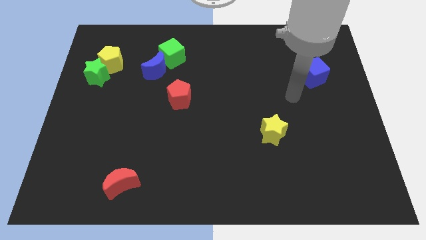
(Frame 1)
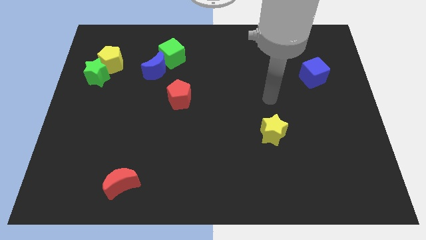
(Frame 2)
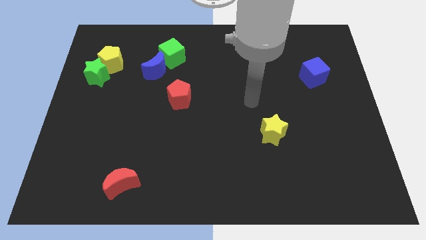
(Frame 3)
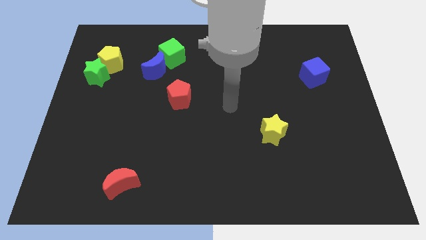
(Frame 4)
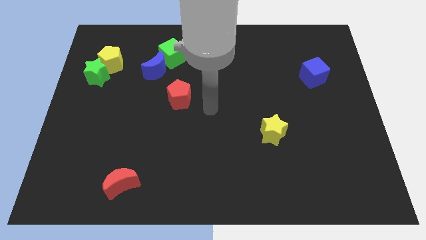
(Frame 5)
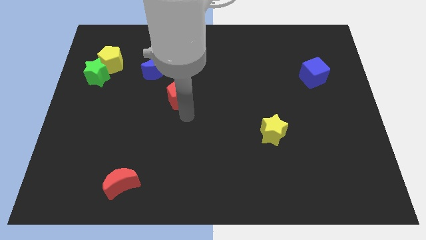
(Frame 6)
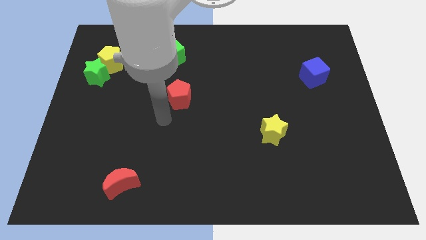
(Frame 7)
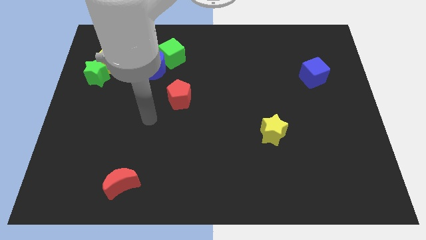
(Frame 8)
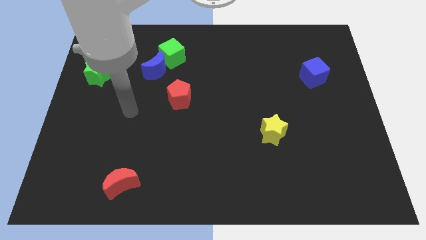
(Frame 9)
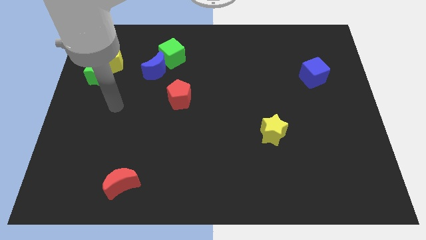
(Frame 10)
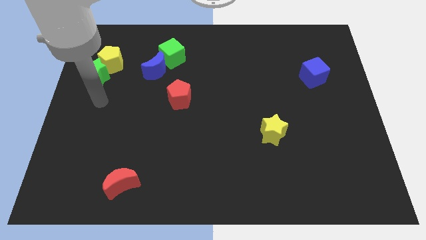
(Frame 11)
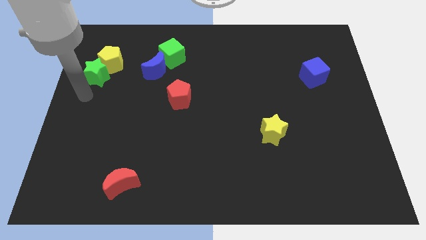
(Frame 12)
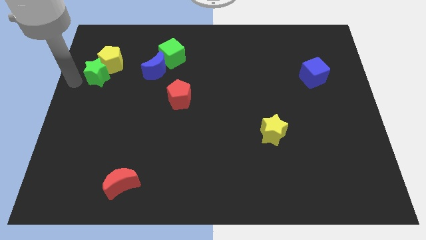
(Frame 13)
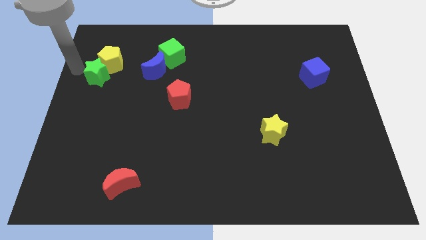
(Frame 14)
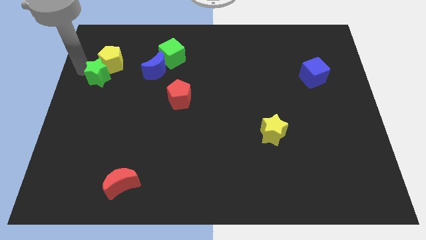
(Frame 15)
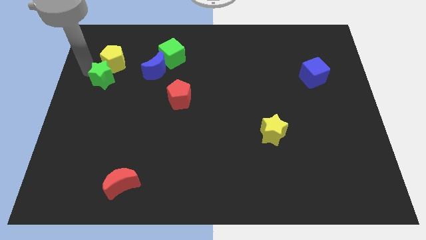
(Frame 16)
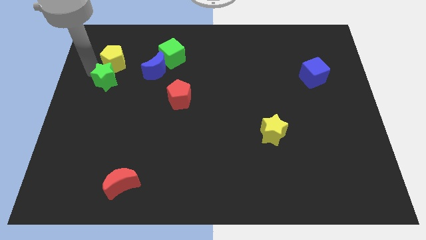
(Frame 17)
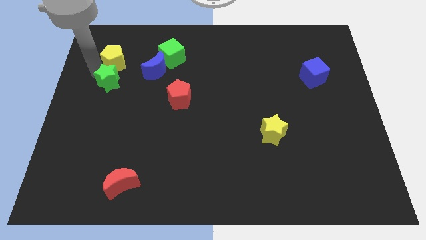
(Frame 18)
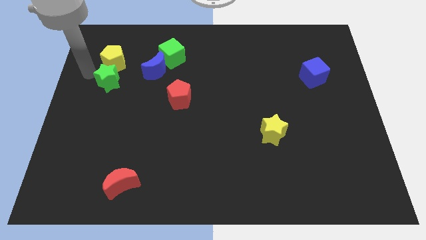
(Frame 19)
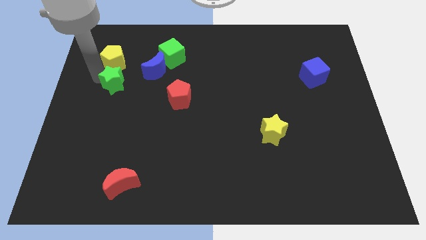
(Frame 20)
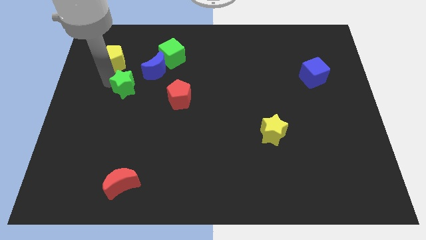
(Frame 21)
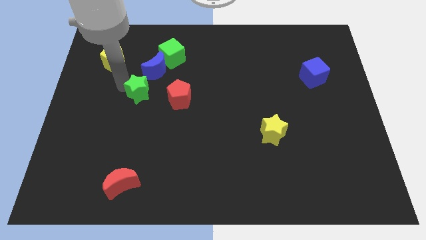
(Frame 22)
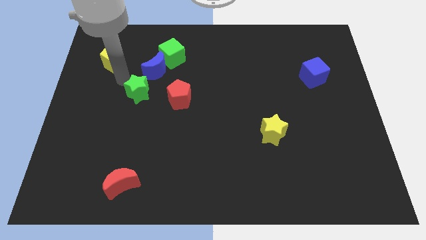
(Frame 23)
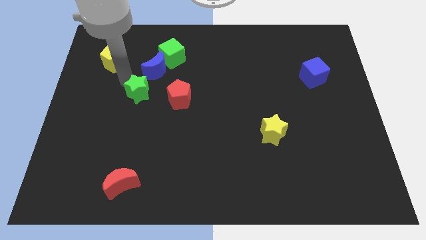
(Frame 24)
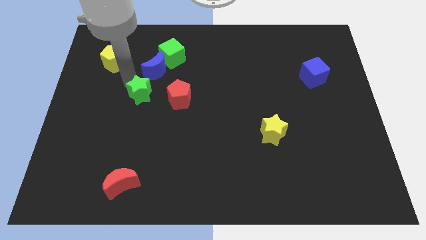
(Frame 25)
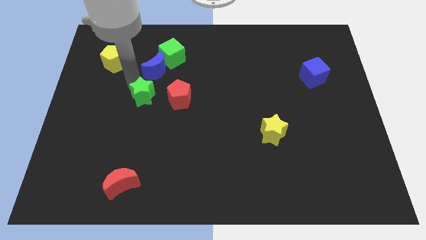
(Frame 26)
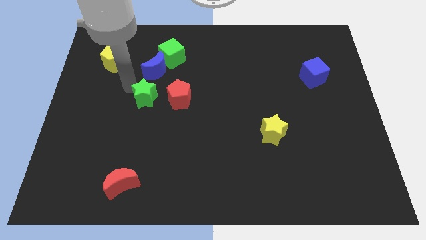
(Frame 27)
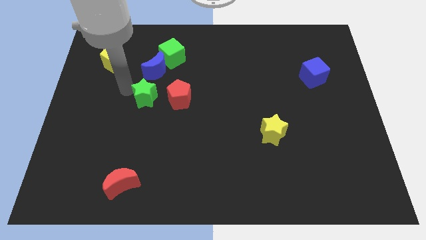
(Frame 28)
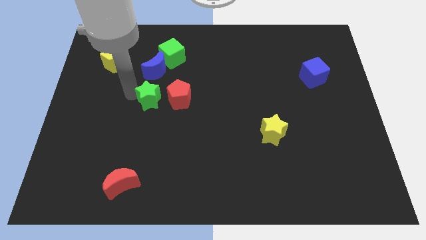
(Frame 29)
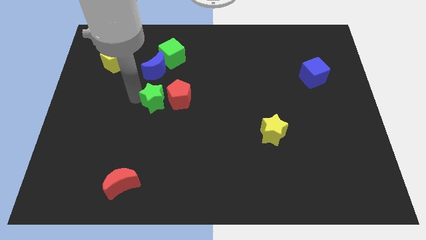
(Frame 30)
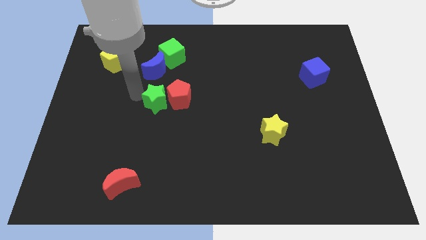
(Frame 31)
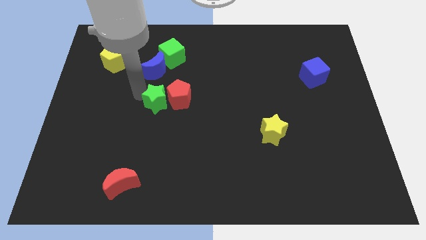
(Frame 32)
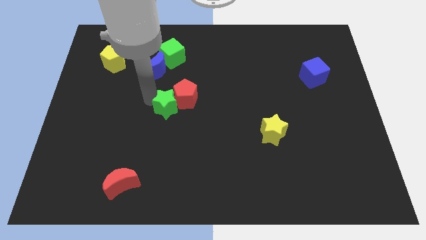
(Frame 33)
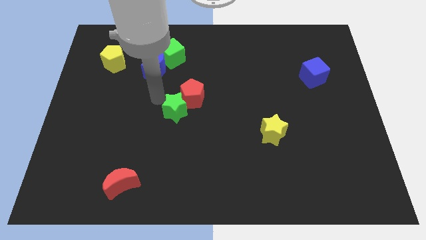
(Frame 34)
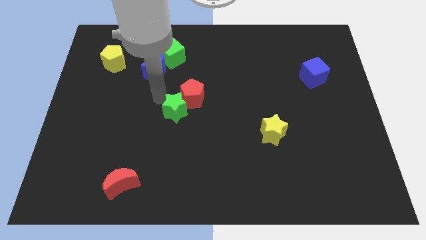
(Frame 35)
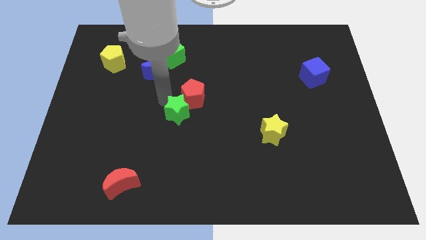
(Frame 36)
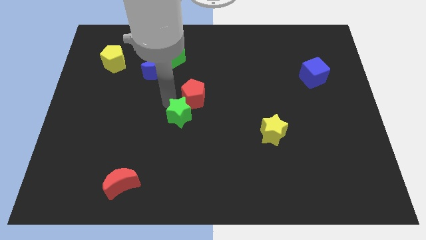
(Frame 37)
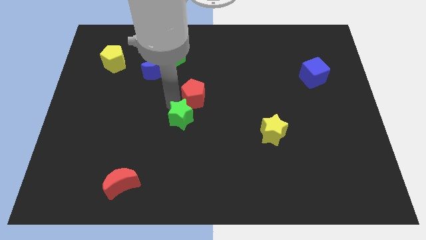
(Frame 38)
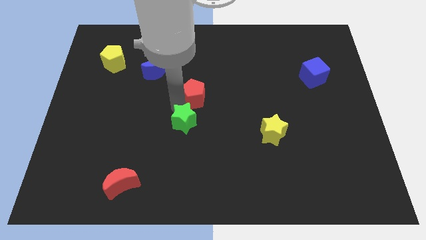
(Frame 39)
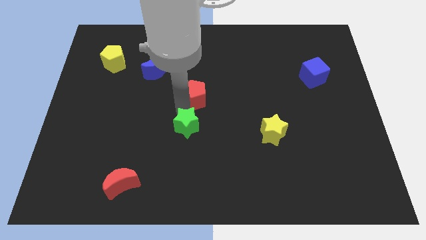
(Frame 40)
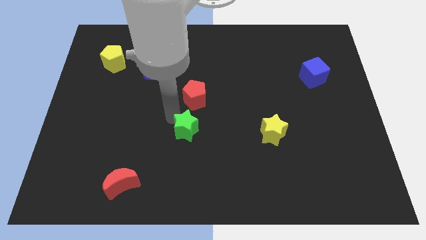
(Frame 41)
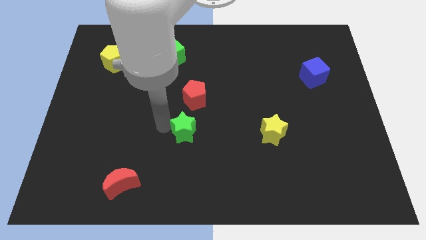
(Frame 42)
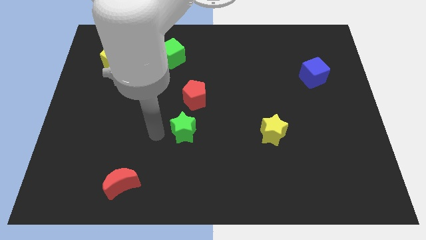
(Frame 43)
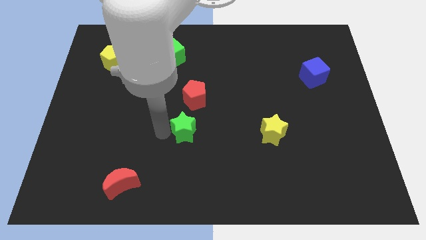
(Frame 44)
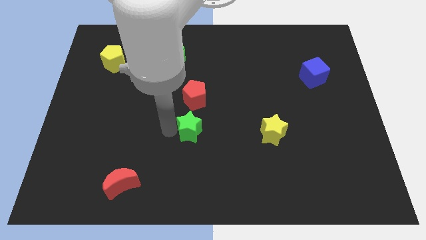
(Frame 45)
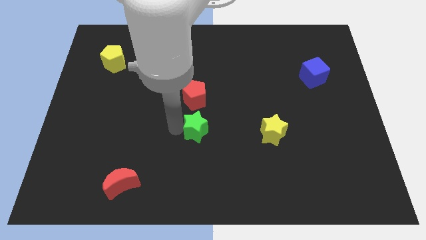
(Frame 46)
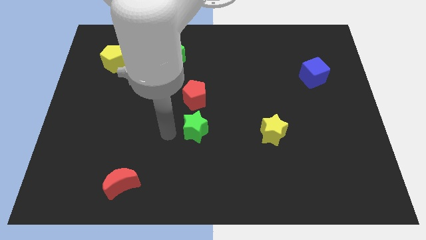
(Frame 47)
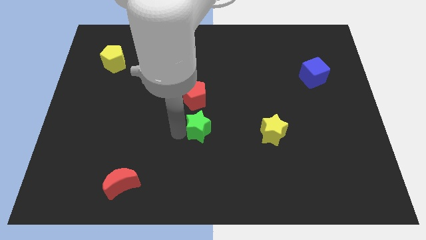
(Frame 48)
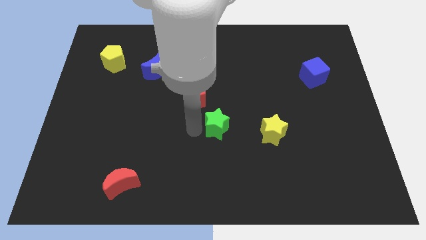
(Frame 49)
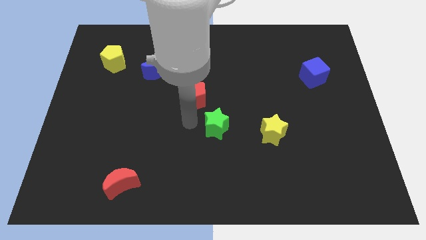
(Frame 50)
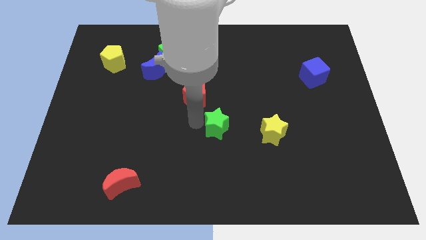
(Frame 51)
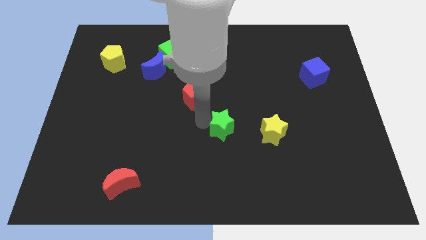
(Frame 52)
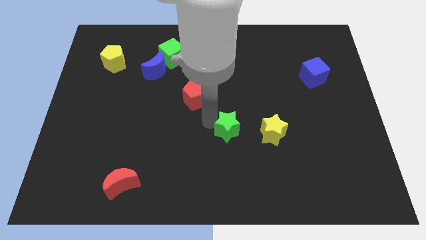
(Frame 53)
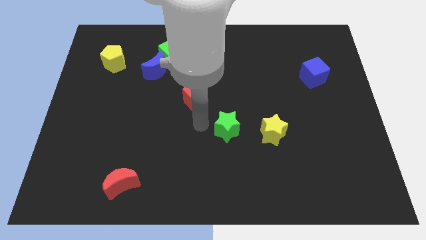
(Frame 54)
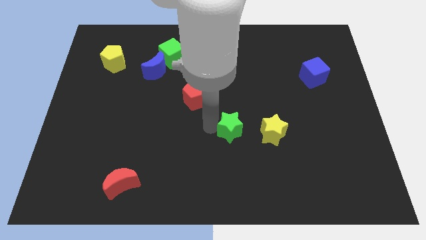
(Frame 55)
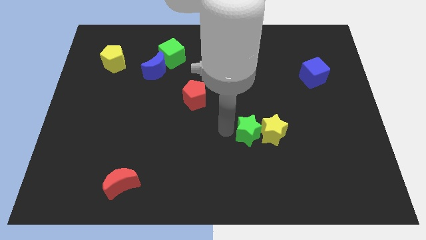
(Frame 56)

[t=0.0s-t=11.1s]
push the green star next to the yellow star

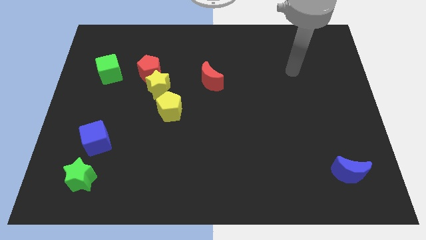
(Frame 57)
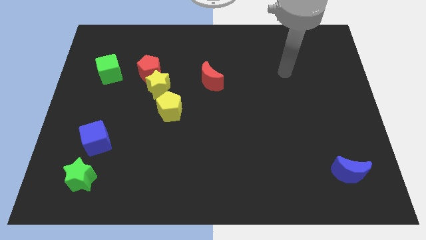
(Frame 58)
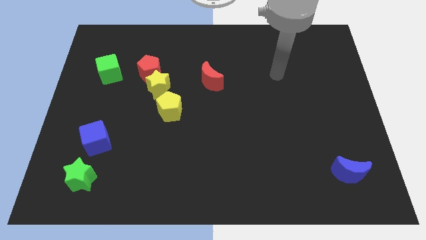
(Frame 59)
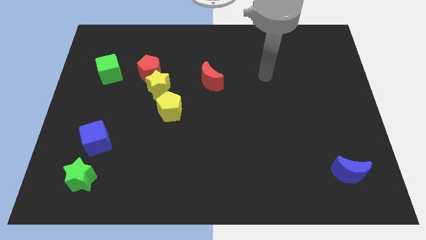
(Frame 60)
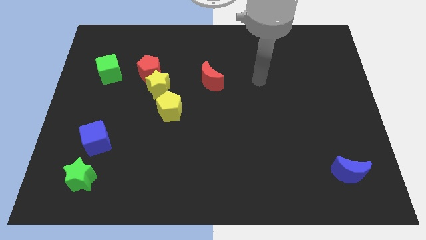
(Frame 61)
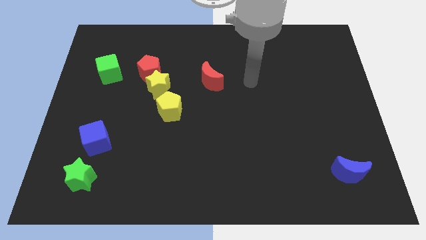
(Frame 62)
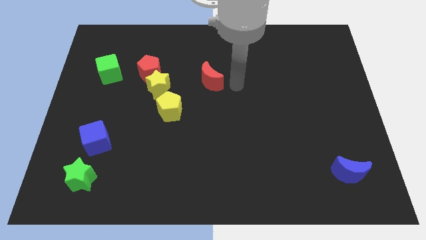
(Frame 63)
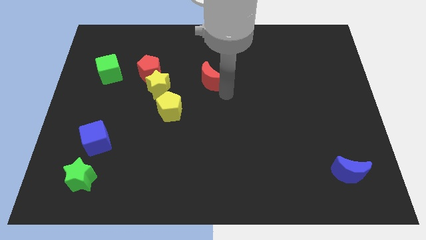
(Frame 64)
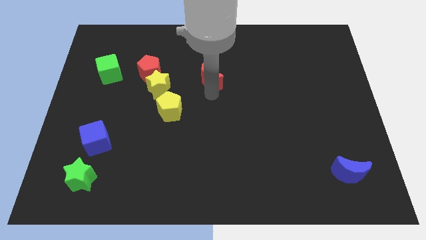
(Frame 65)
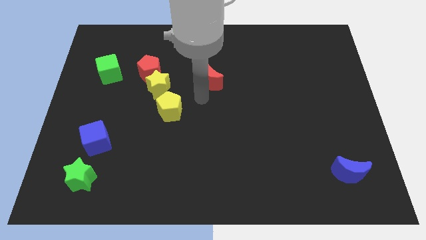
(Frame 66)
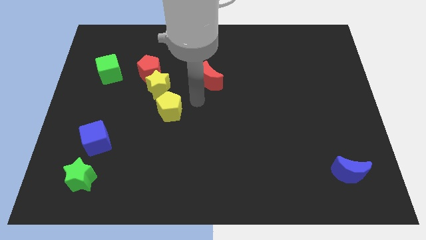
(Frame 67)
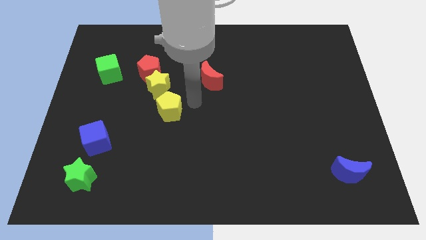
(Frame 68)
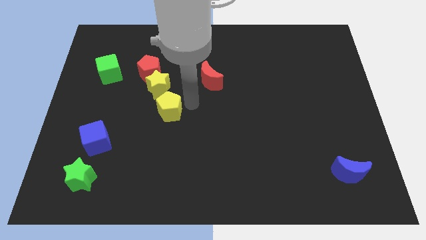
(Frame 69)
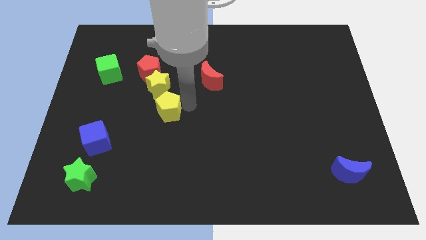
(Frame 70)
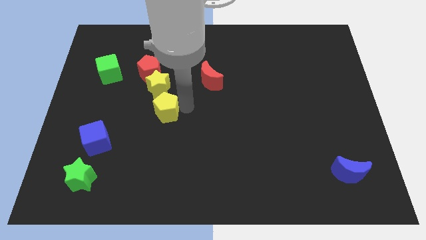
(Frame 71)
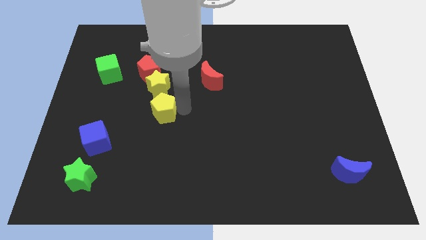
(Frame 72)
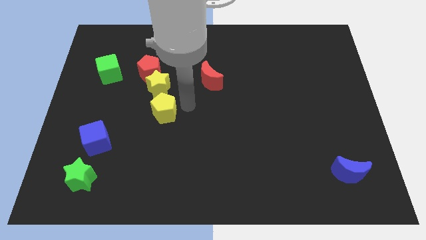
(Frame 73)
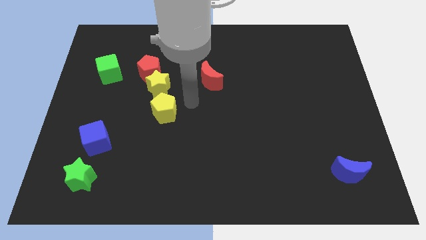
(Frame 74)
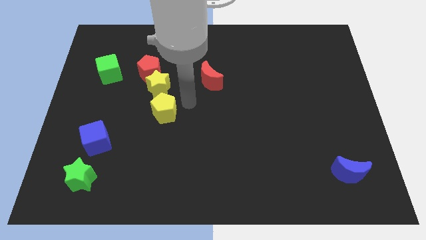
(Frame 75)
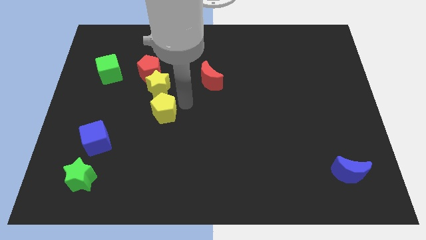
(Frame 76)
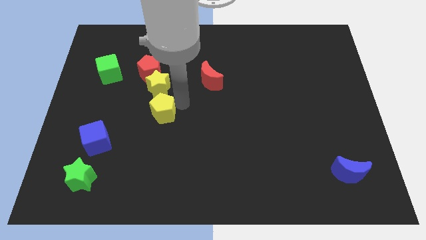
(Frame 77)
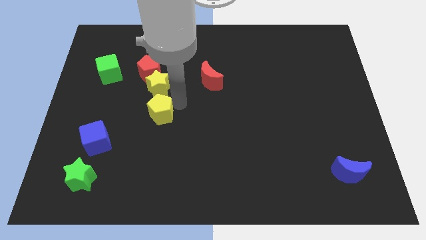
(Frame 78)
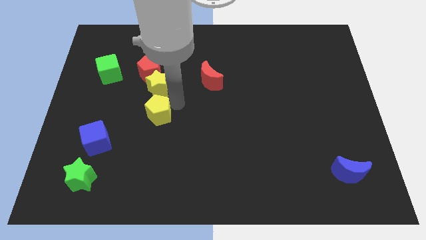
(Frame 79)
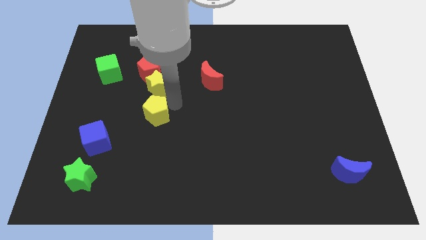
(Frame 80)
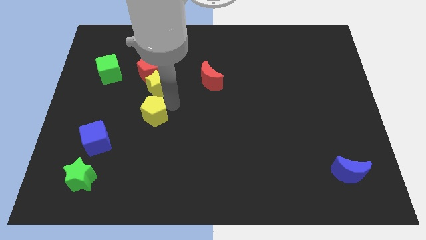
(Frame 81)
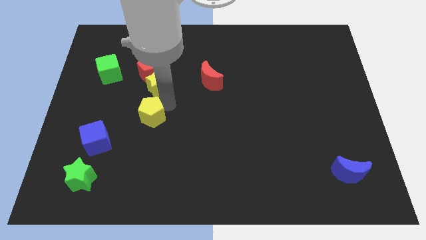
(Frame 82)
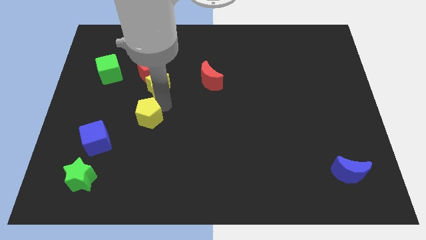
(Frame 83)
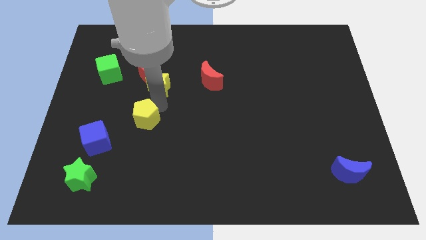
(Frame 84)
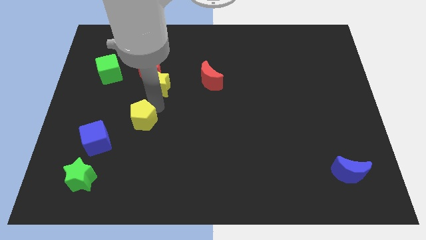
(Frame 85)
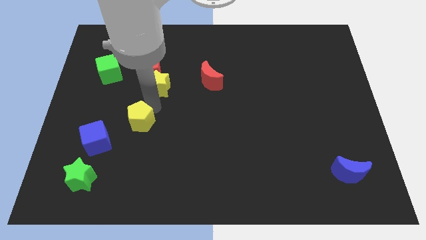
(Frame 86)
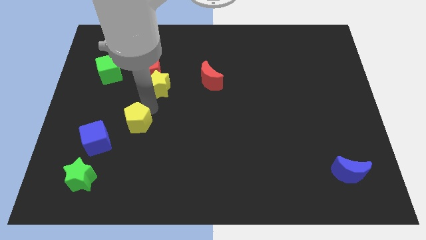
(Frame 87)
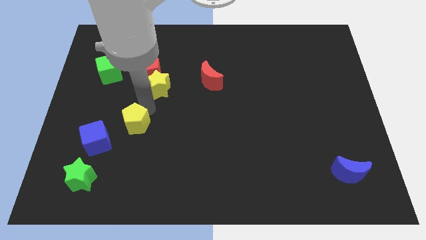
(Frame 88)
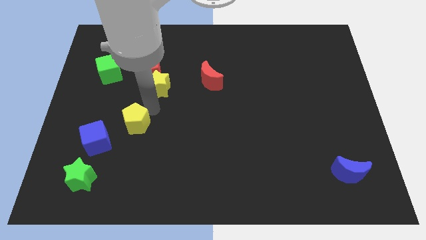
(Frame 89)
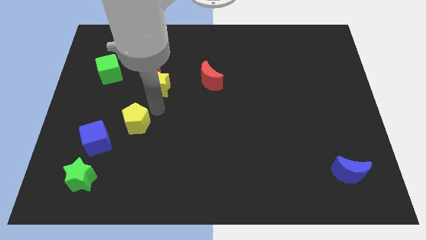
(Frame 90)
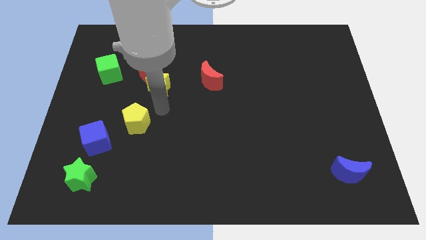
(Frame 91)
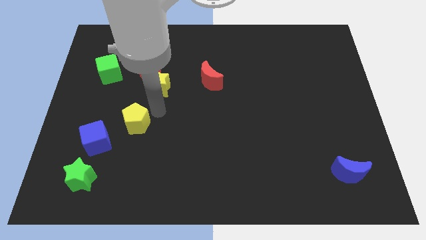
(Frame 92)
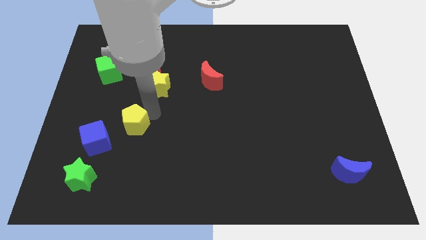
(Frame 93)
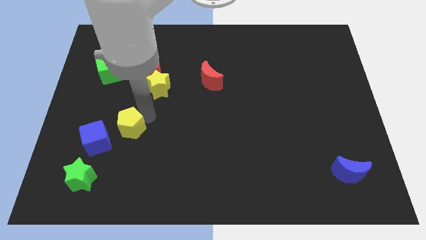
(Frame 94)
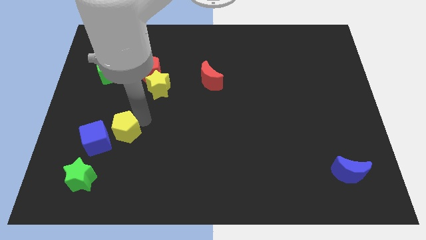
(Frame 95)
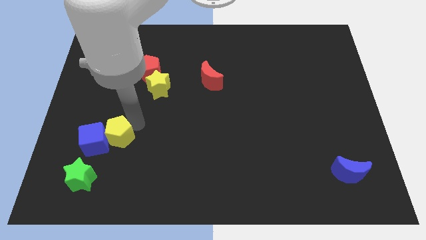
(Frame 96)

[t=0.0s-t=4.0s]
move the yellow pentagon next to the blue cube
